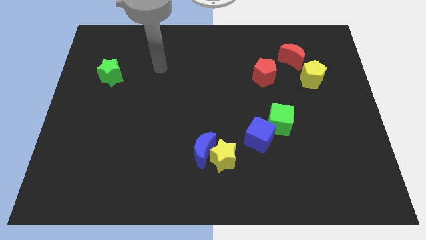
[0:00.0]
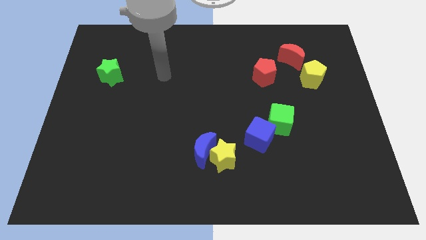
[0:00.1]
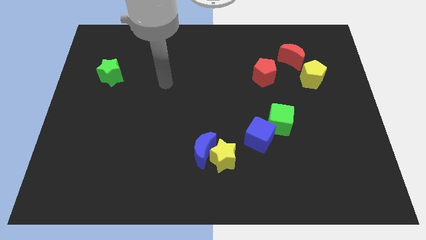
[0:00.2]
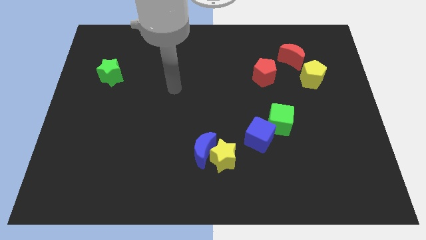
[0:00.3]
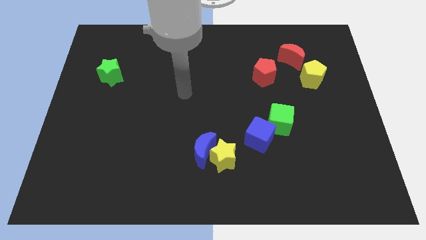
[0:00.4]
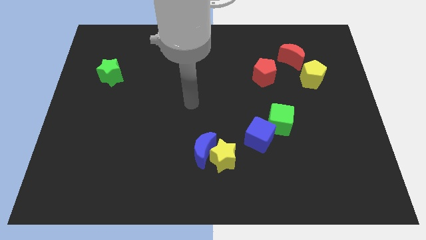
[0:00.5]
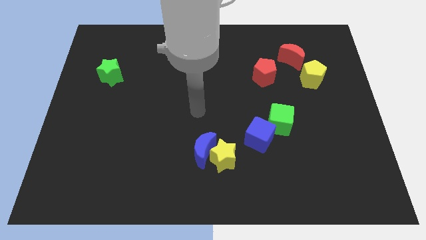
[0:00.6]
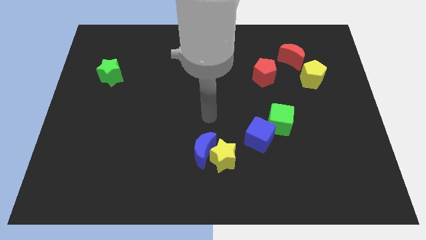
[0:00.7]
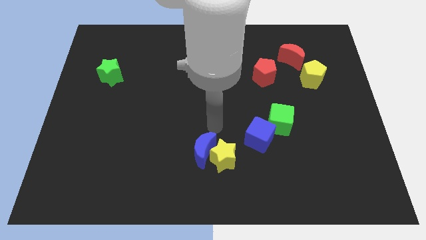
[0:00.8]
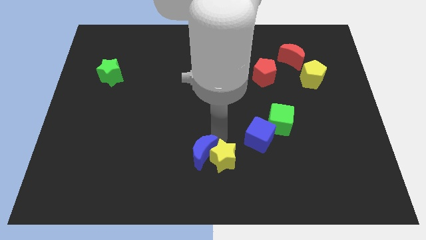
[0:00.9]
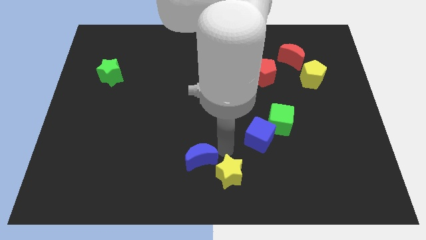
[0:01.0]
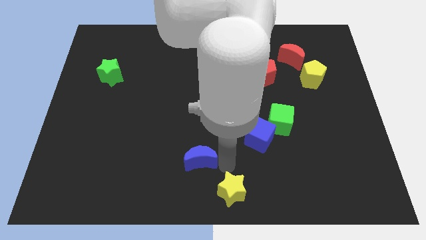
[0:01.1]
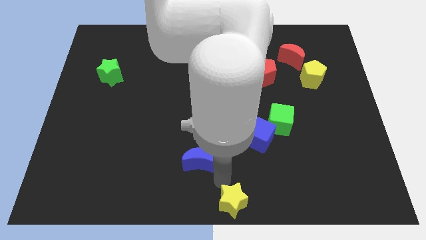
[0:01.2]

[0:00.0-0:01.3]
move the blue moon away from the yellow star

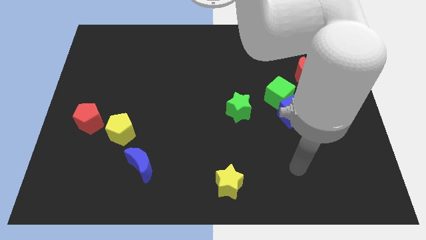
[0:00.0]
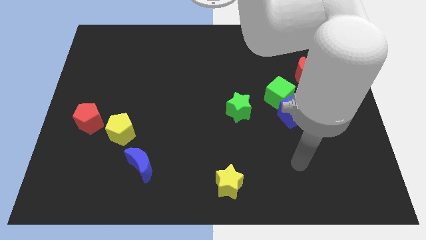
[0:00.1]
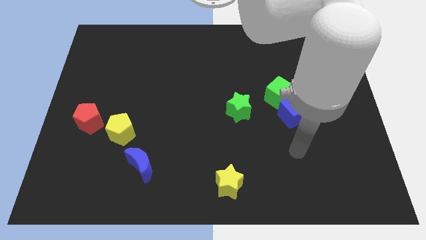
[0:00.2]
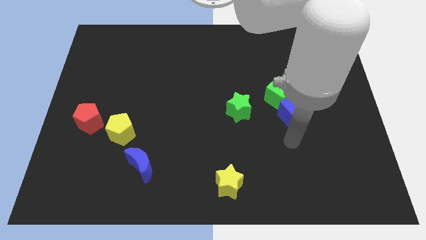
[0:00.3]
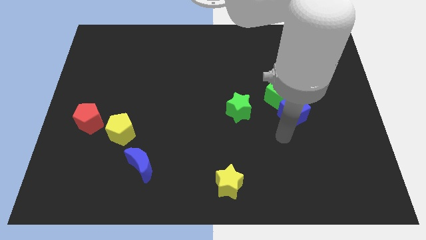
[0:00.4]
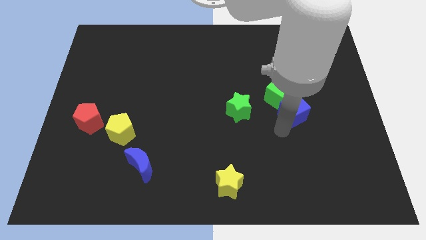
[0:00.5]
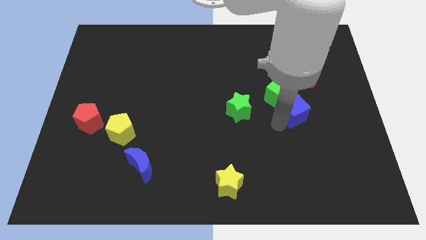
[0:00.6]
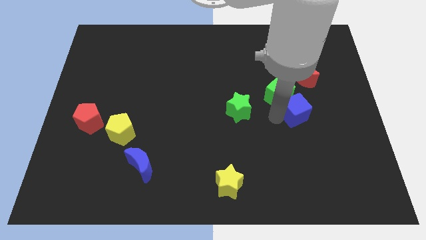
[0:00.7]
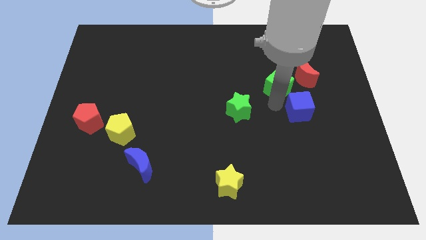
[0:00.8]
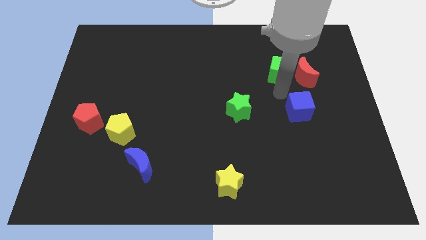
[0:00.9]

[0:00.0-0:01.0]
move the blue cube away from the green cube

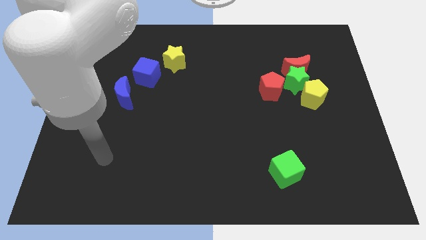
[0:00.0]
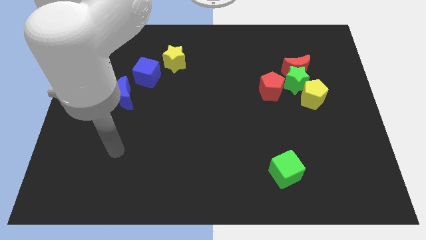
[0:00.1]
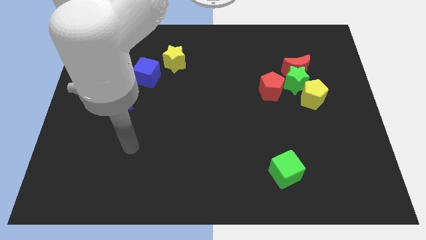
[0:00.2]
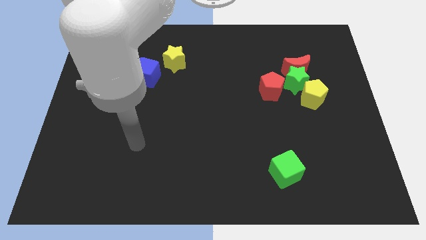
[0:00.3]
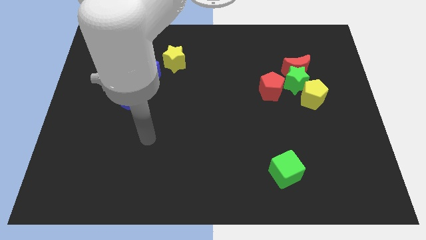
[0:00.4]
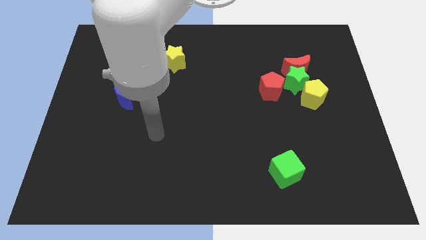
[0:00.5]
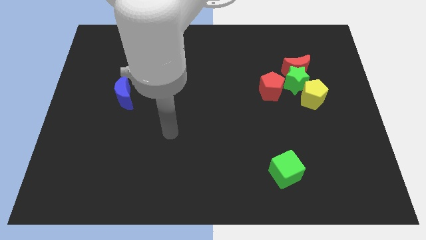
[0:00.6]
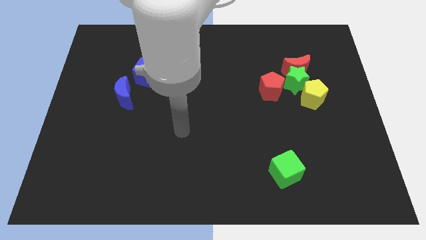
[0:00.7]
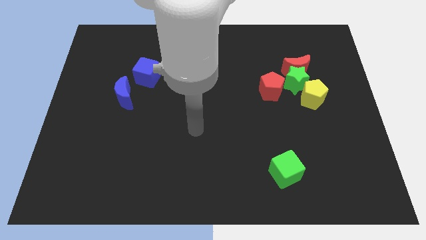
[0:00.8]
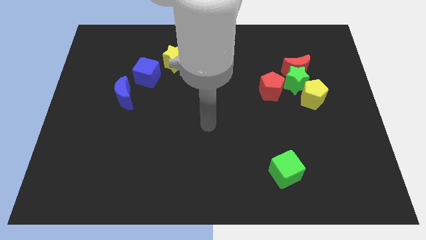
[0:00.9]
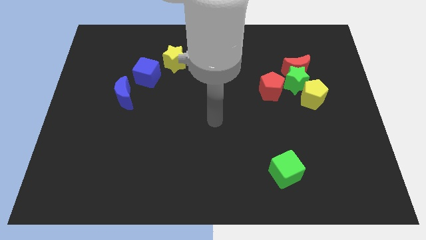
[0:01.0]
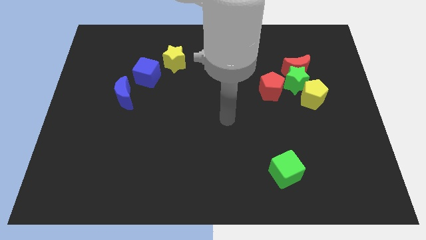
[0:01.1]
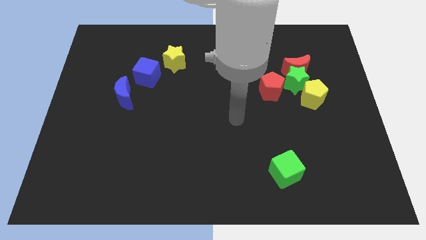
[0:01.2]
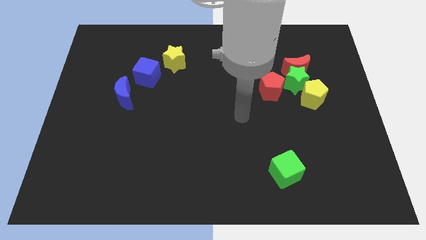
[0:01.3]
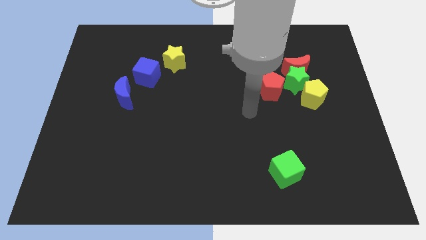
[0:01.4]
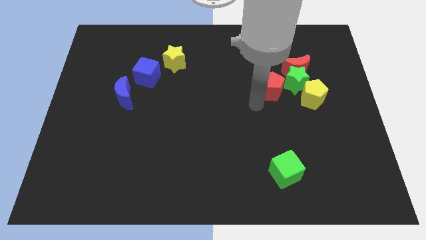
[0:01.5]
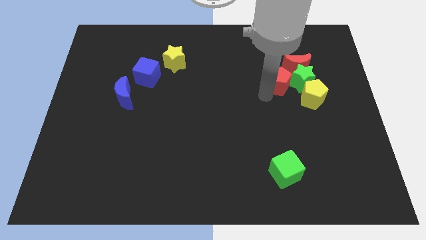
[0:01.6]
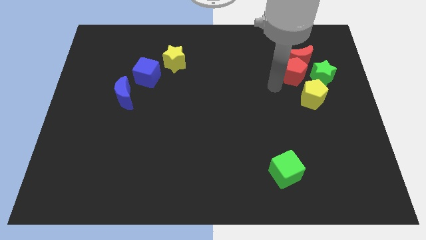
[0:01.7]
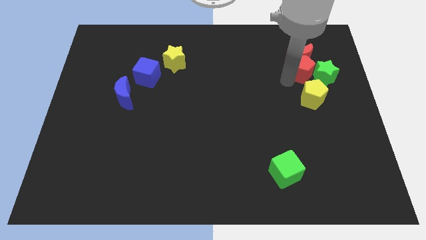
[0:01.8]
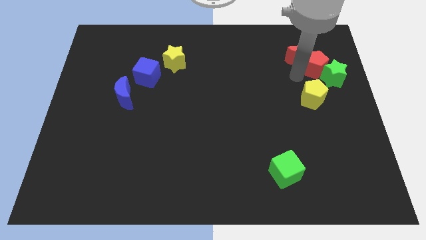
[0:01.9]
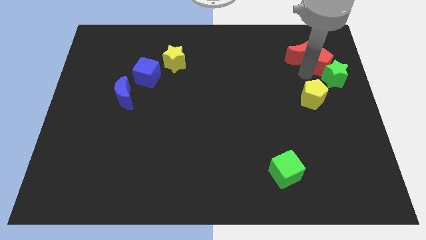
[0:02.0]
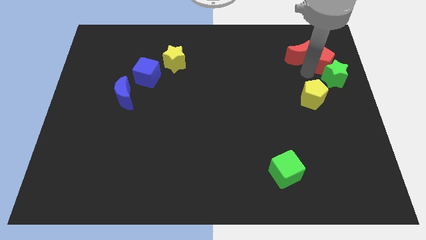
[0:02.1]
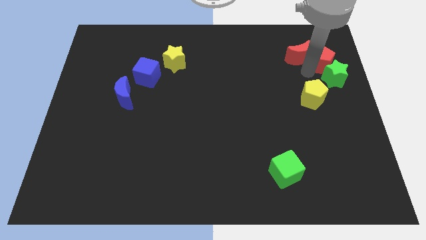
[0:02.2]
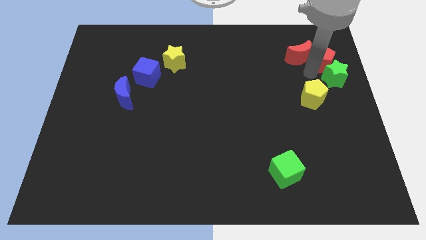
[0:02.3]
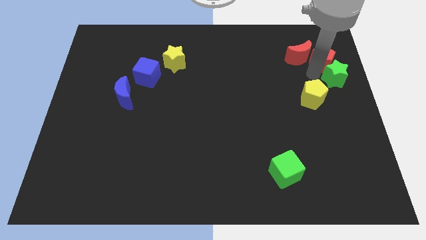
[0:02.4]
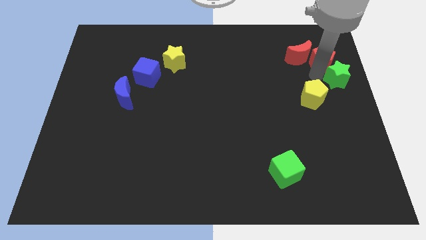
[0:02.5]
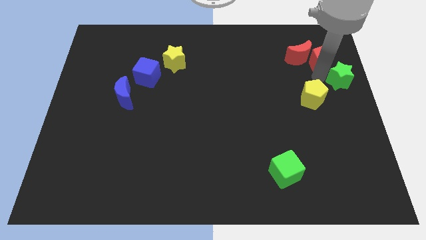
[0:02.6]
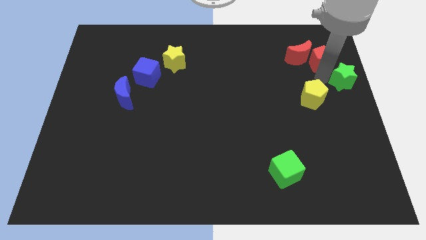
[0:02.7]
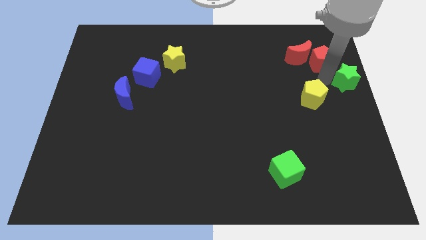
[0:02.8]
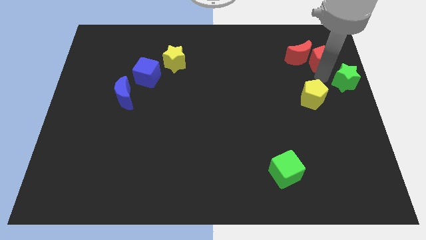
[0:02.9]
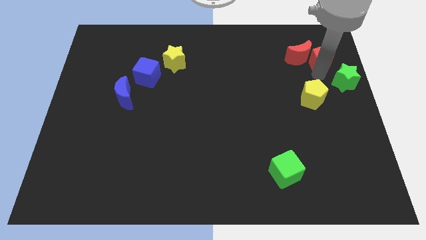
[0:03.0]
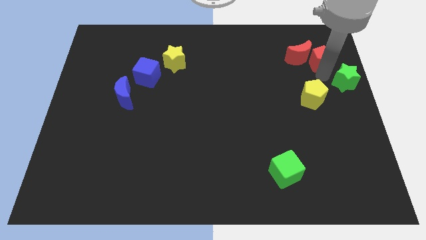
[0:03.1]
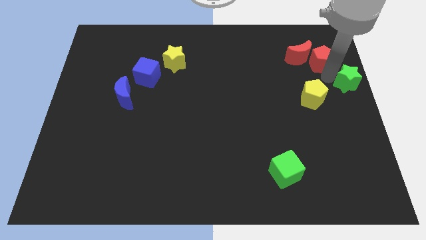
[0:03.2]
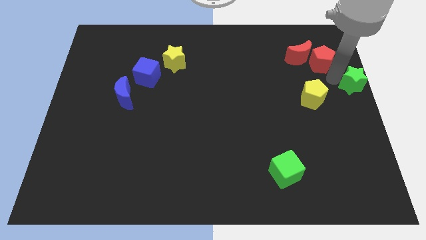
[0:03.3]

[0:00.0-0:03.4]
separate the green star from the group

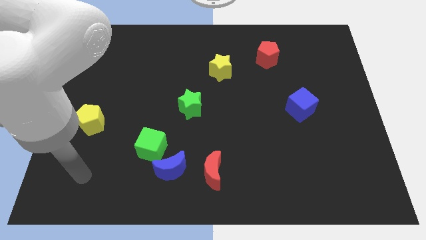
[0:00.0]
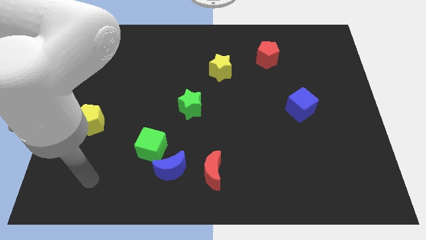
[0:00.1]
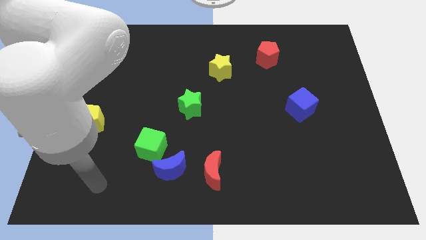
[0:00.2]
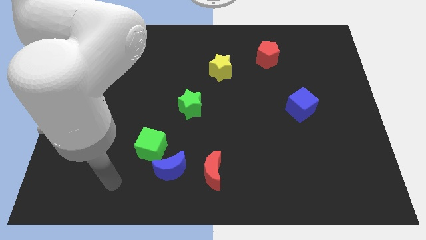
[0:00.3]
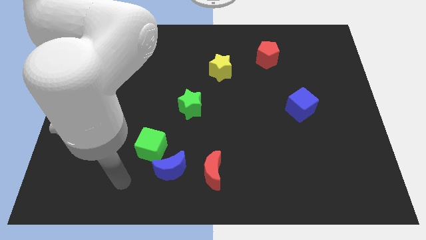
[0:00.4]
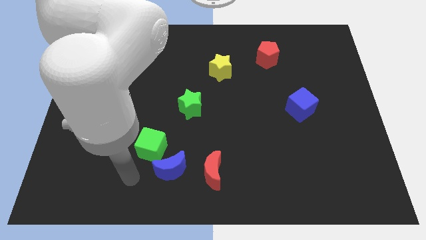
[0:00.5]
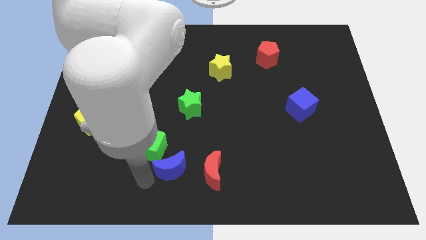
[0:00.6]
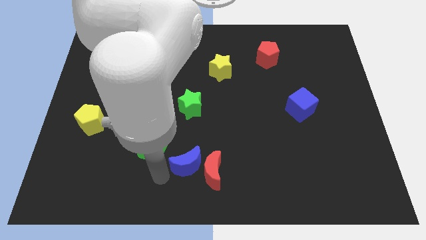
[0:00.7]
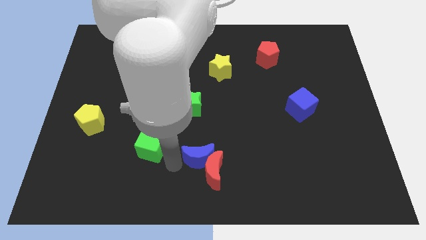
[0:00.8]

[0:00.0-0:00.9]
separate the green cube from the blue moon

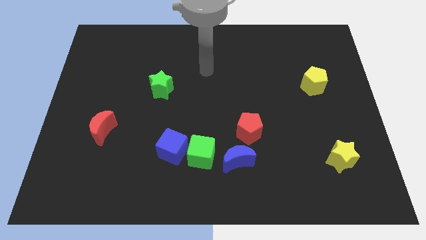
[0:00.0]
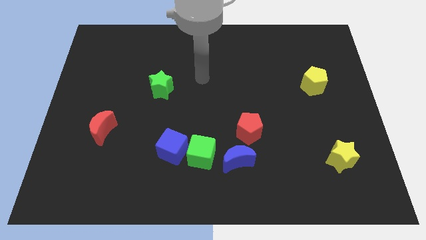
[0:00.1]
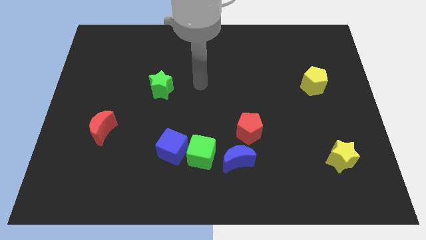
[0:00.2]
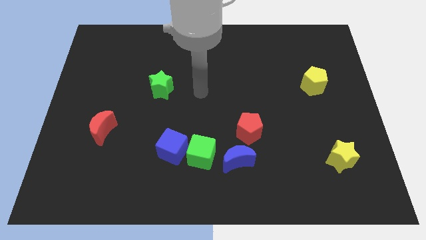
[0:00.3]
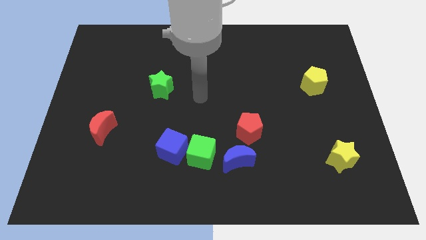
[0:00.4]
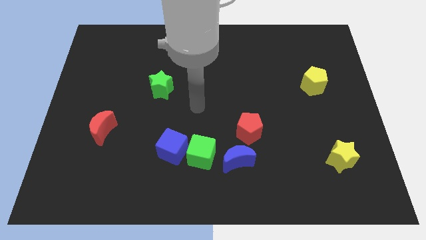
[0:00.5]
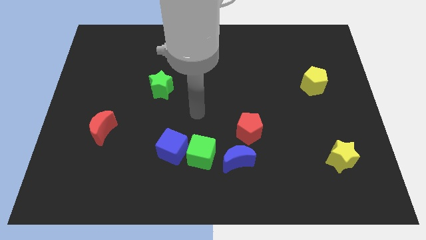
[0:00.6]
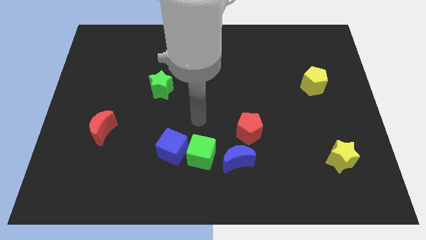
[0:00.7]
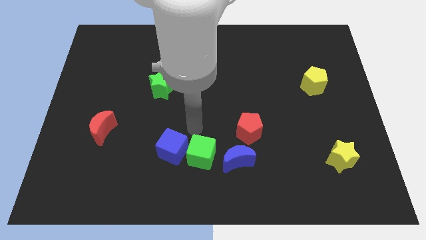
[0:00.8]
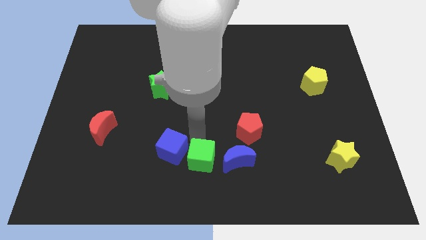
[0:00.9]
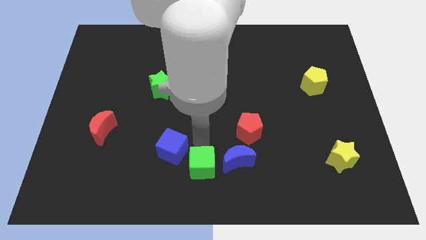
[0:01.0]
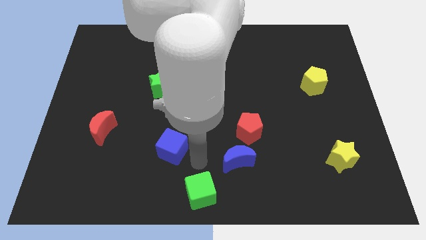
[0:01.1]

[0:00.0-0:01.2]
pull the blue cube apart from the green cube

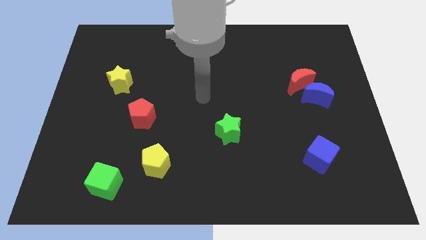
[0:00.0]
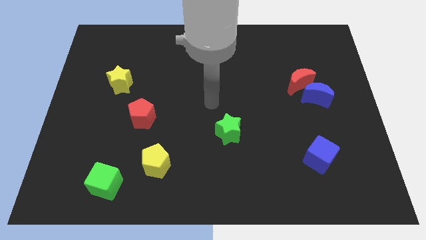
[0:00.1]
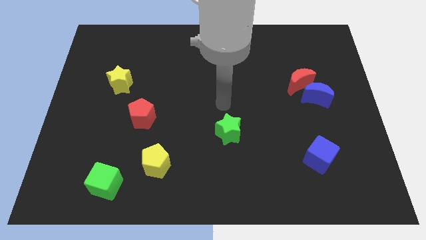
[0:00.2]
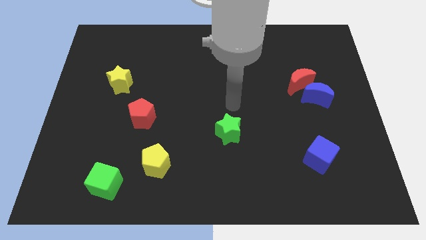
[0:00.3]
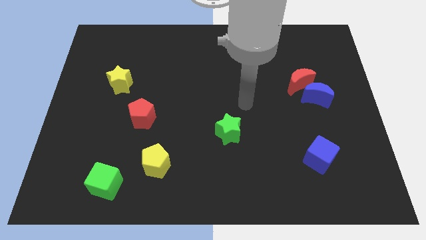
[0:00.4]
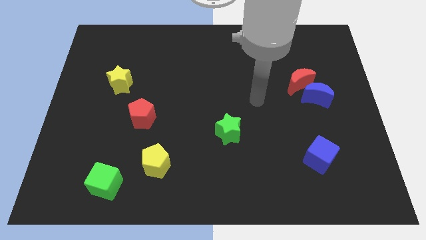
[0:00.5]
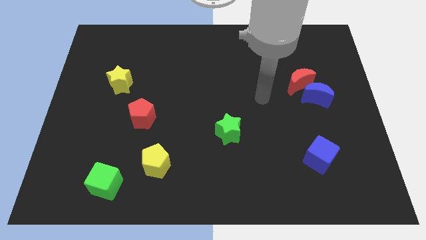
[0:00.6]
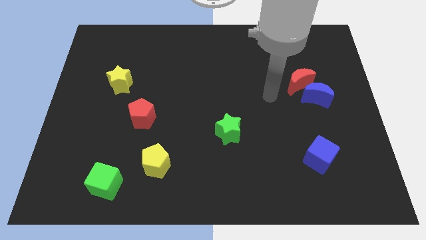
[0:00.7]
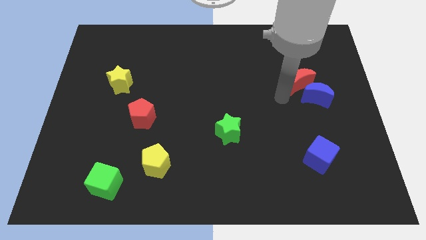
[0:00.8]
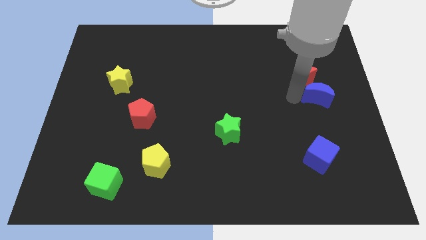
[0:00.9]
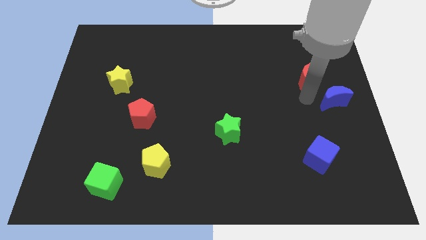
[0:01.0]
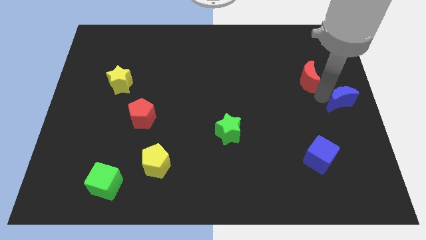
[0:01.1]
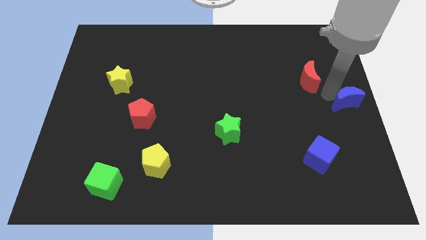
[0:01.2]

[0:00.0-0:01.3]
separate the red moon from the blue moon
